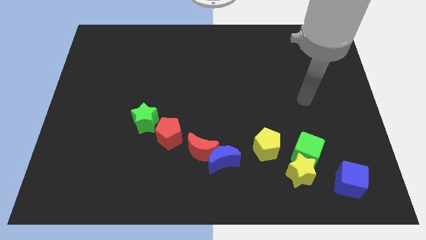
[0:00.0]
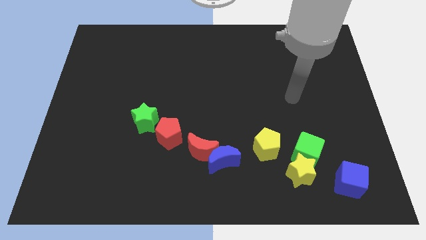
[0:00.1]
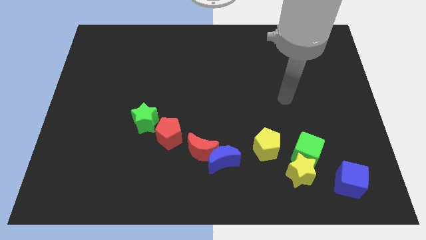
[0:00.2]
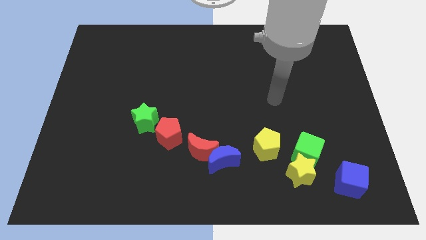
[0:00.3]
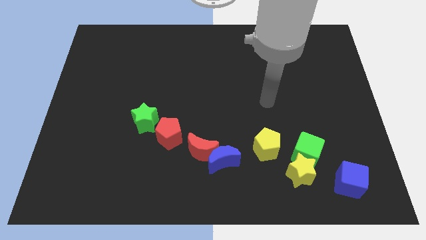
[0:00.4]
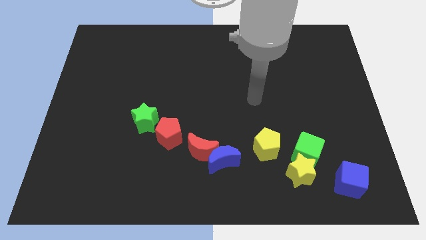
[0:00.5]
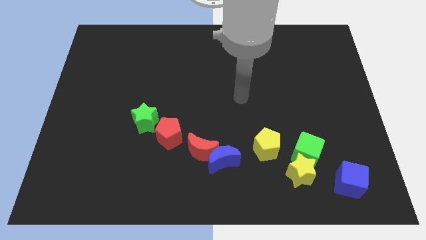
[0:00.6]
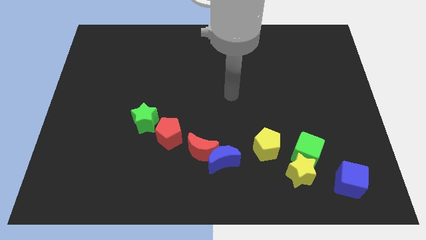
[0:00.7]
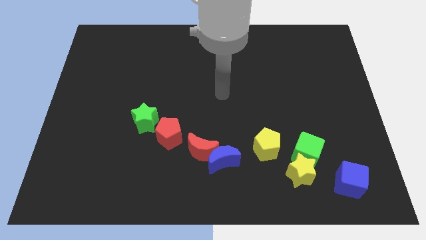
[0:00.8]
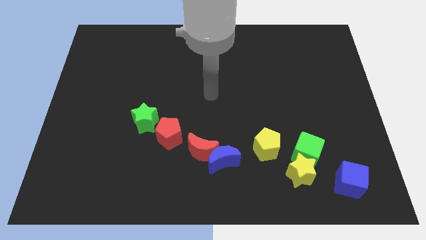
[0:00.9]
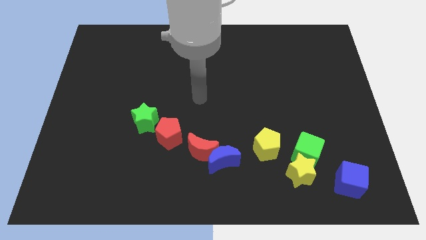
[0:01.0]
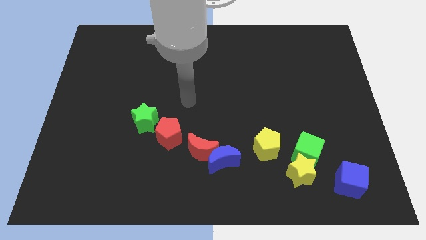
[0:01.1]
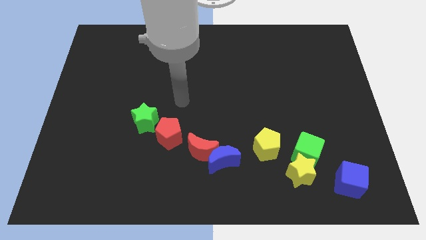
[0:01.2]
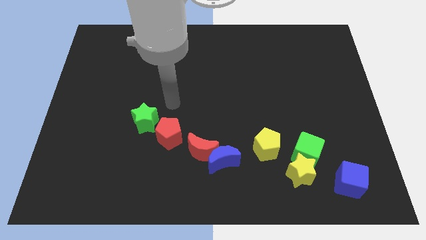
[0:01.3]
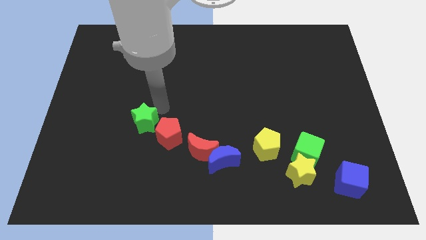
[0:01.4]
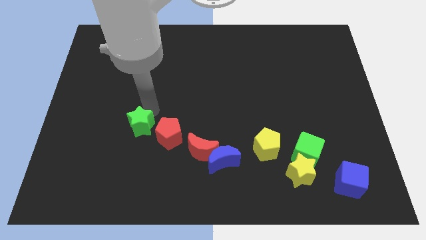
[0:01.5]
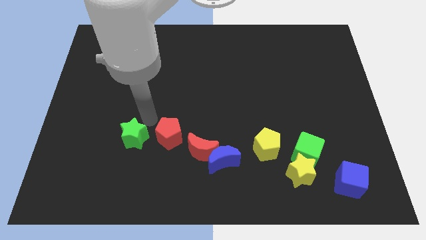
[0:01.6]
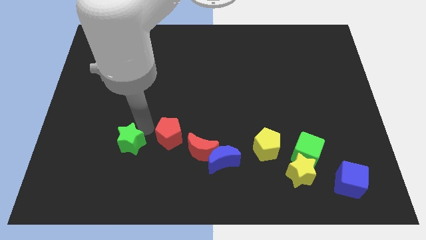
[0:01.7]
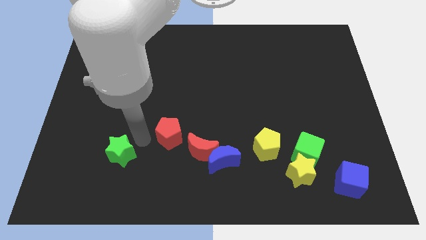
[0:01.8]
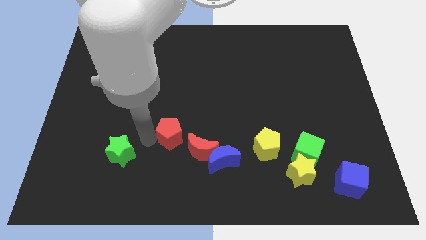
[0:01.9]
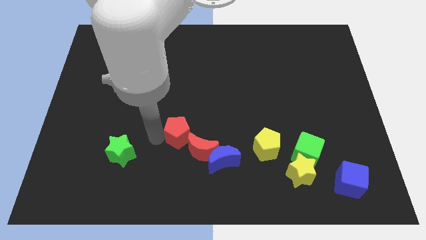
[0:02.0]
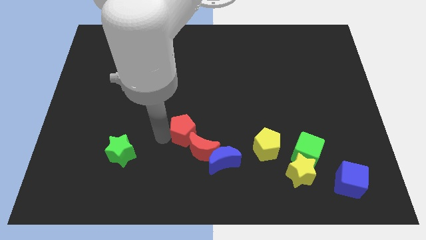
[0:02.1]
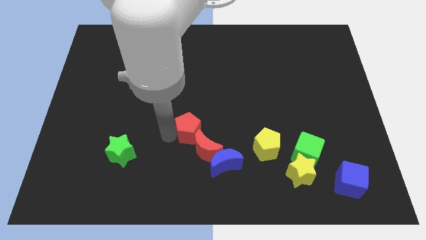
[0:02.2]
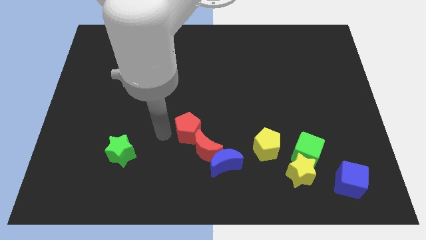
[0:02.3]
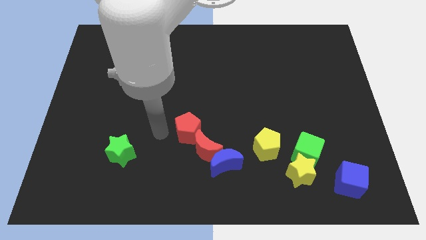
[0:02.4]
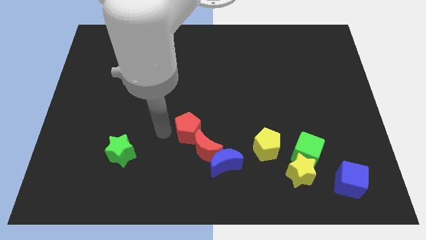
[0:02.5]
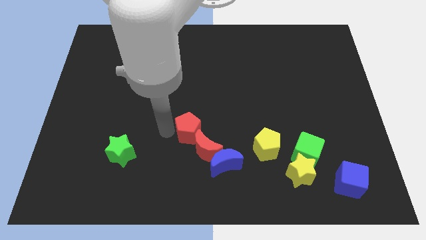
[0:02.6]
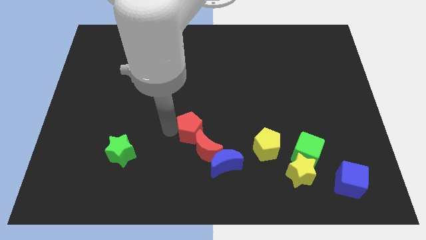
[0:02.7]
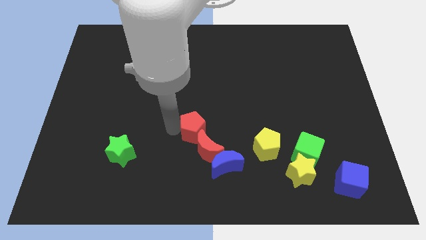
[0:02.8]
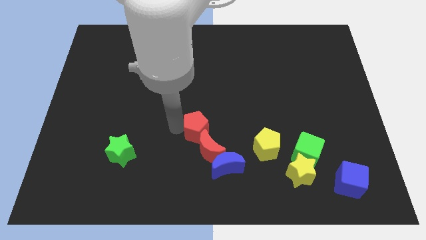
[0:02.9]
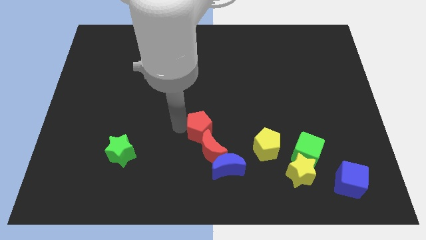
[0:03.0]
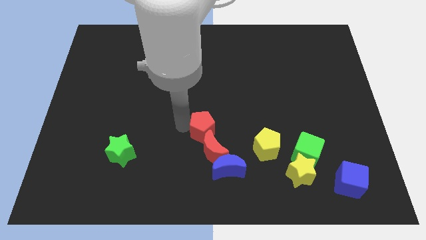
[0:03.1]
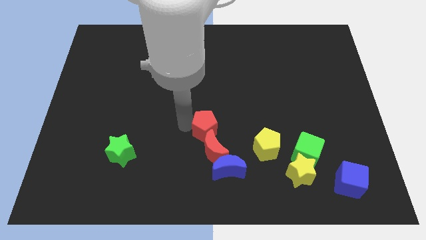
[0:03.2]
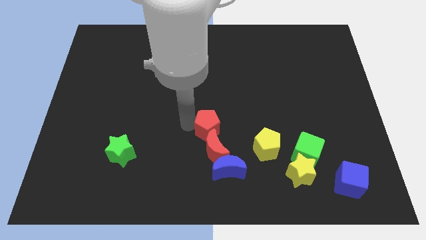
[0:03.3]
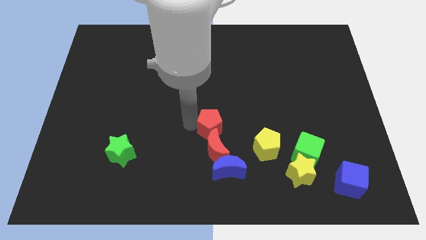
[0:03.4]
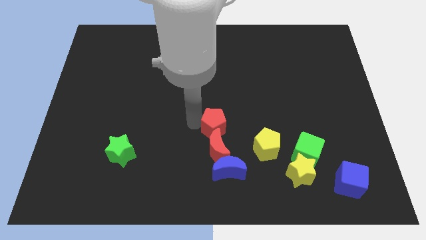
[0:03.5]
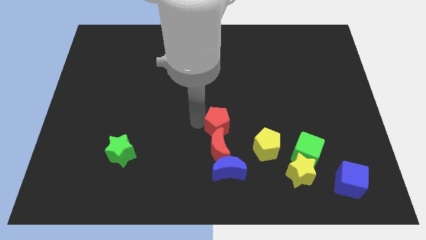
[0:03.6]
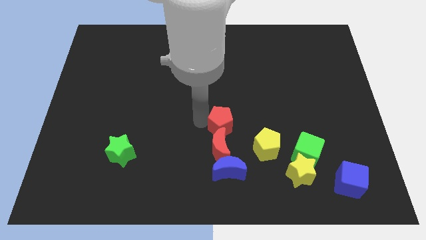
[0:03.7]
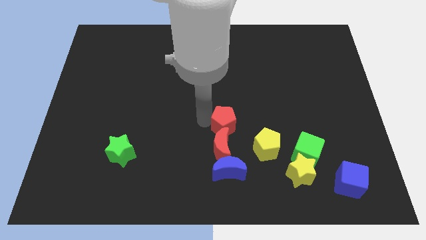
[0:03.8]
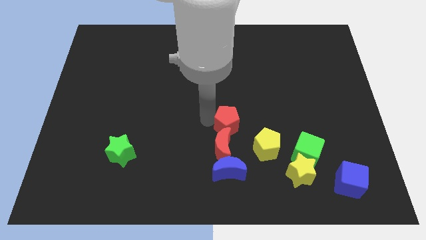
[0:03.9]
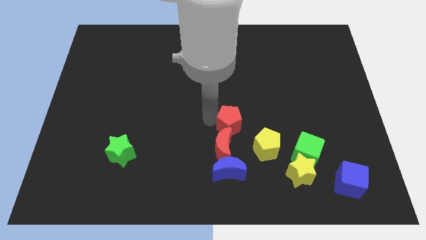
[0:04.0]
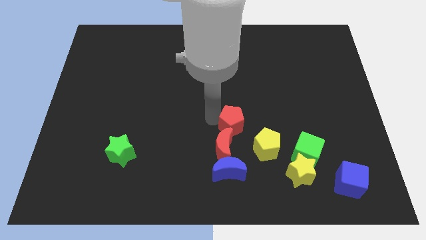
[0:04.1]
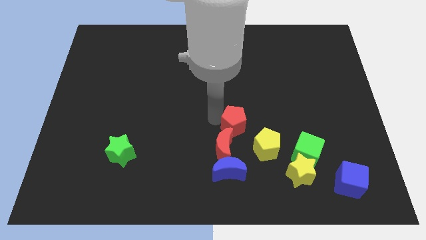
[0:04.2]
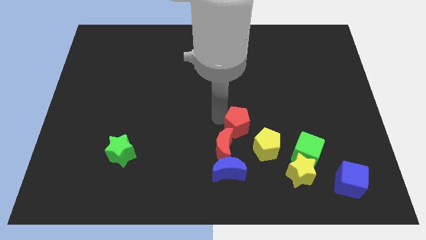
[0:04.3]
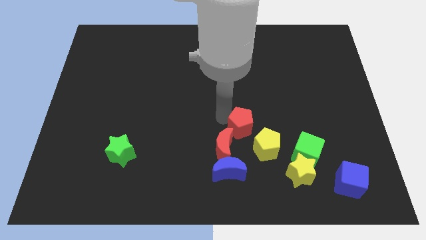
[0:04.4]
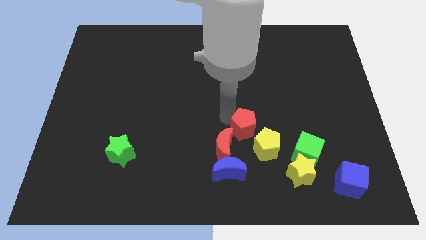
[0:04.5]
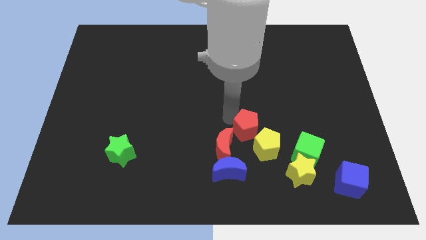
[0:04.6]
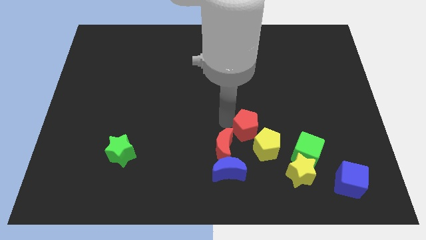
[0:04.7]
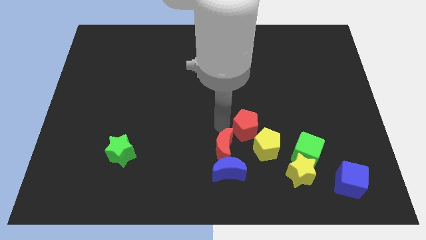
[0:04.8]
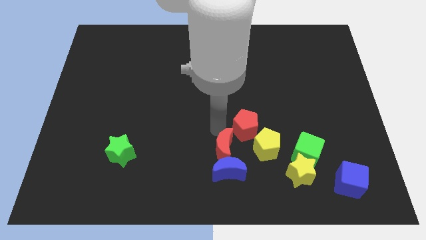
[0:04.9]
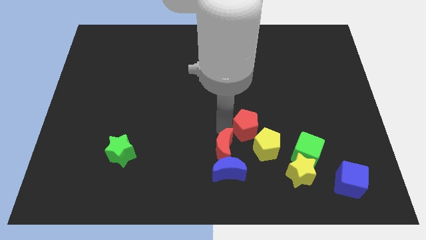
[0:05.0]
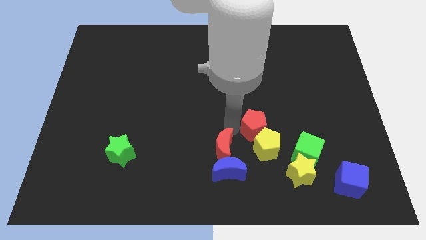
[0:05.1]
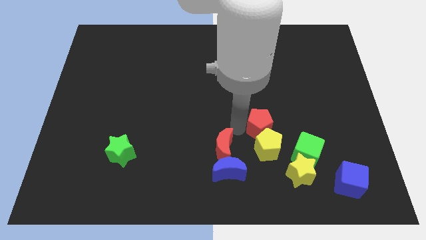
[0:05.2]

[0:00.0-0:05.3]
slide the red pentagon to the right

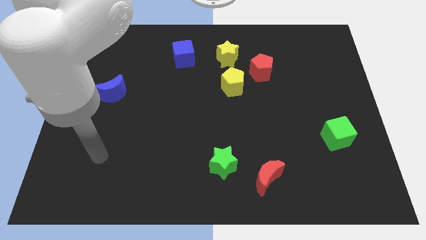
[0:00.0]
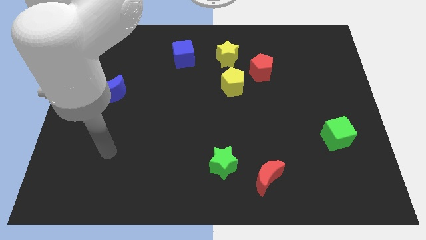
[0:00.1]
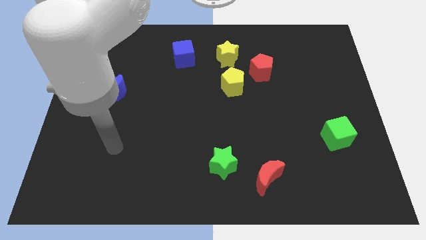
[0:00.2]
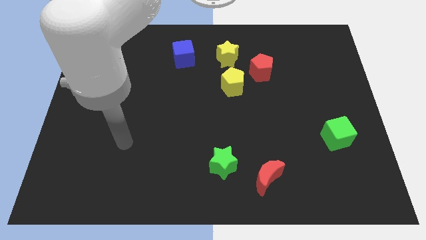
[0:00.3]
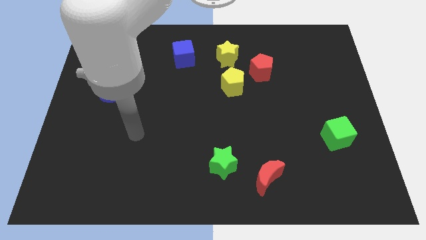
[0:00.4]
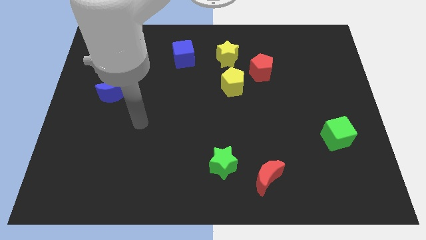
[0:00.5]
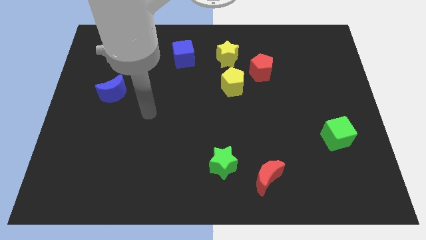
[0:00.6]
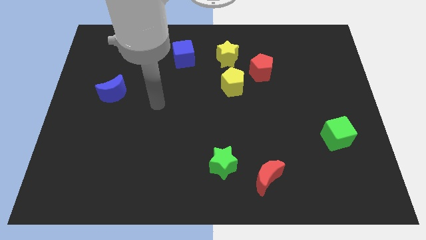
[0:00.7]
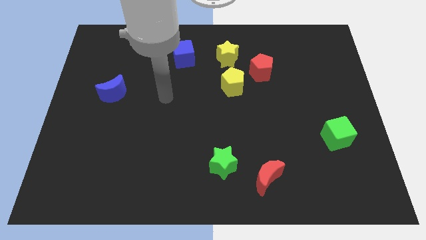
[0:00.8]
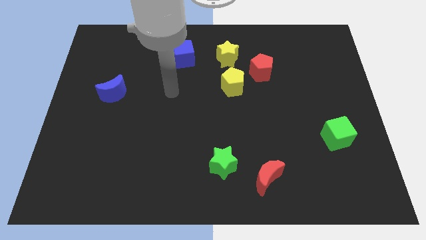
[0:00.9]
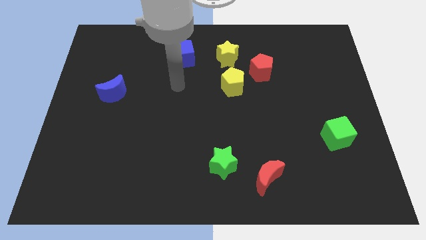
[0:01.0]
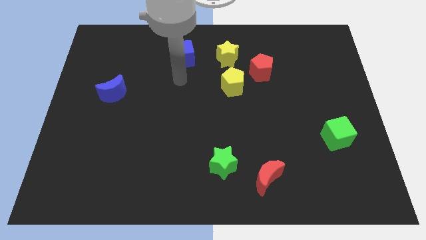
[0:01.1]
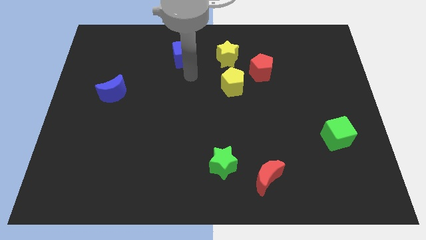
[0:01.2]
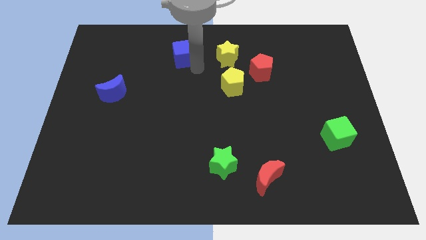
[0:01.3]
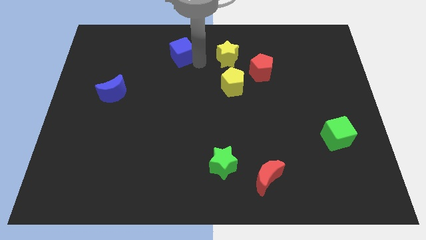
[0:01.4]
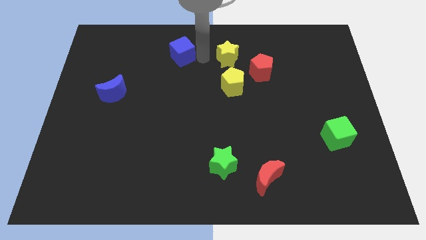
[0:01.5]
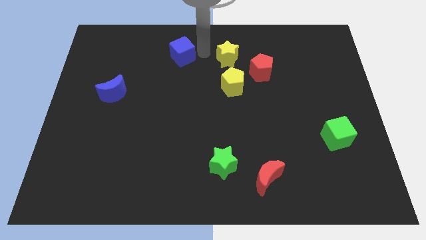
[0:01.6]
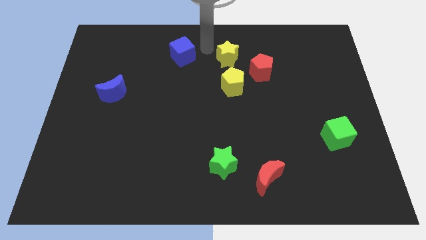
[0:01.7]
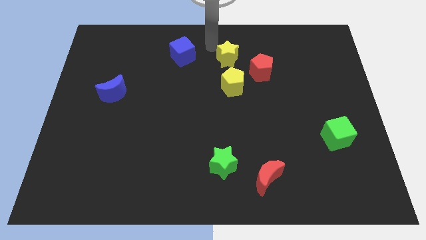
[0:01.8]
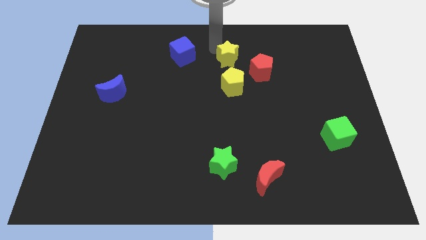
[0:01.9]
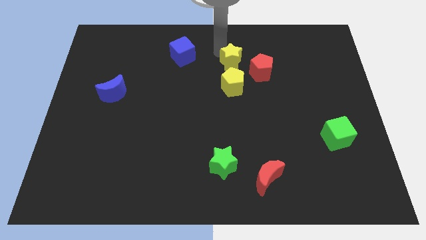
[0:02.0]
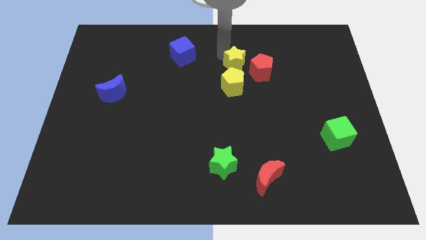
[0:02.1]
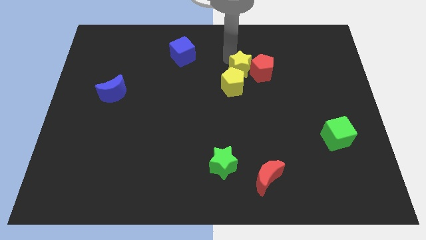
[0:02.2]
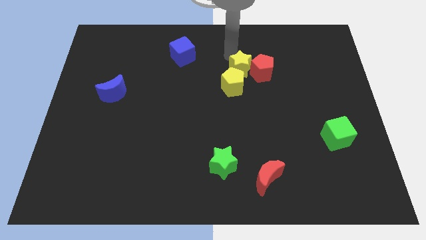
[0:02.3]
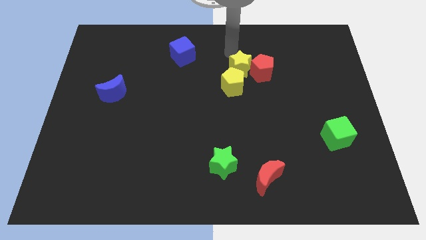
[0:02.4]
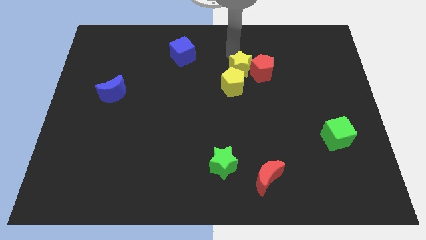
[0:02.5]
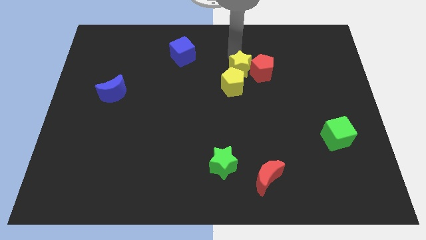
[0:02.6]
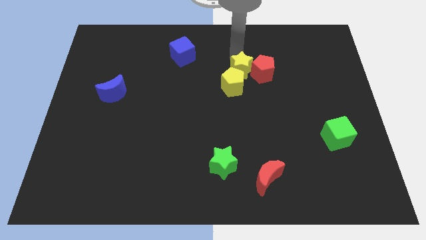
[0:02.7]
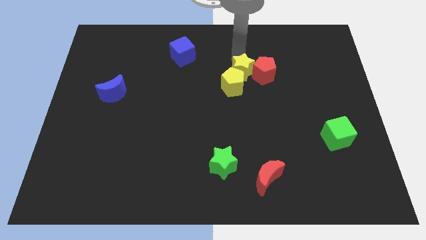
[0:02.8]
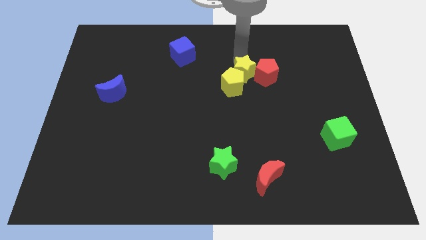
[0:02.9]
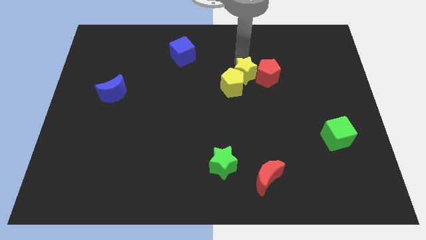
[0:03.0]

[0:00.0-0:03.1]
slide the yellow star down and then to the right somewhat
